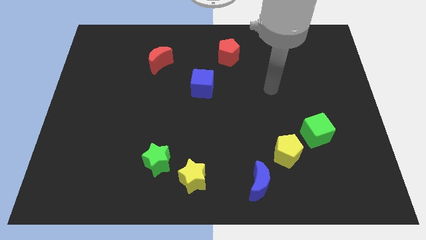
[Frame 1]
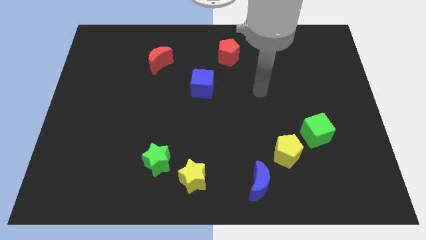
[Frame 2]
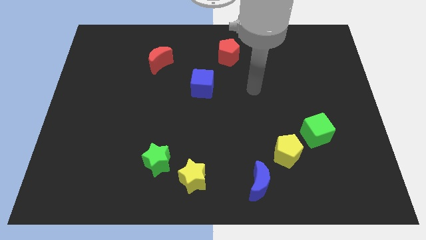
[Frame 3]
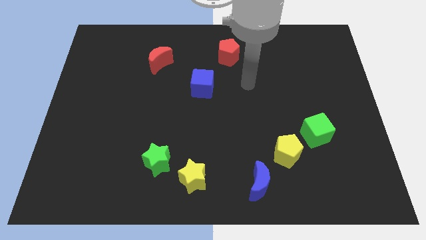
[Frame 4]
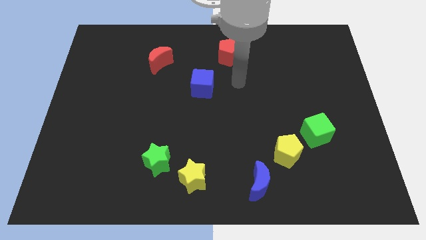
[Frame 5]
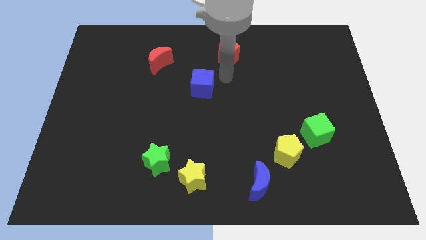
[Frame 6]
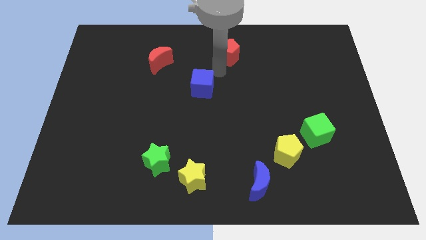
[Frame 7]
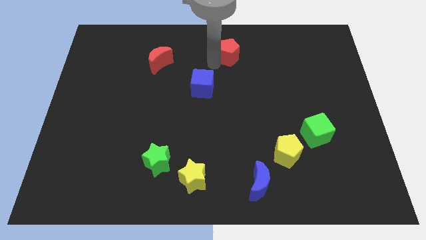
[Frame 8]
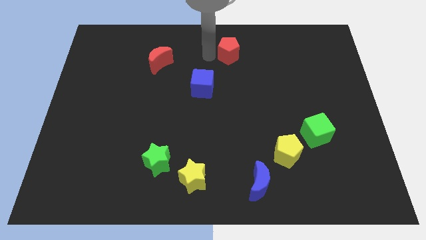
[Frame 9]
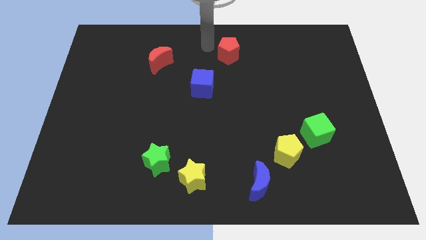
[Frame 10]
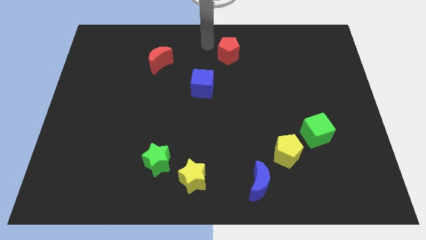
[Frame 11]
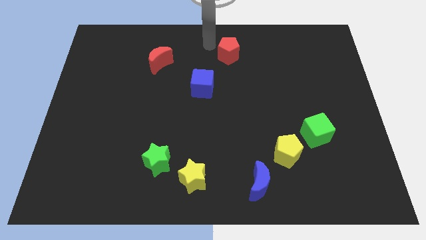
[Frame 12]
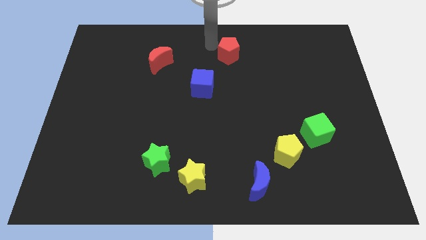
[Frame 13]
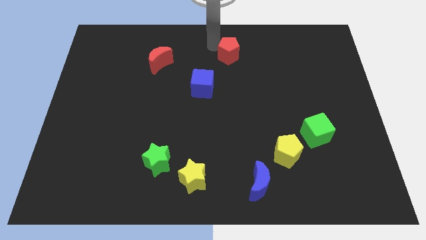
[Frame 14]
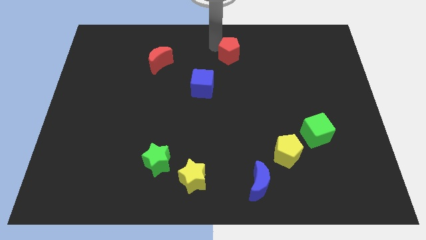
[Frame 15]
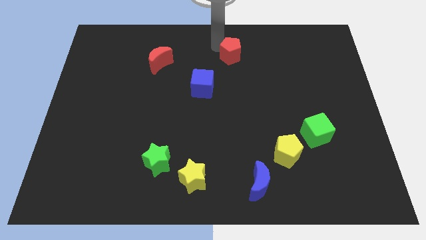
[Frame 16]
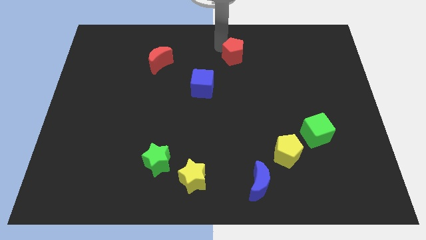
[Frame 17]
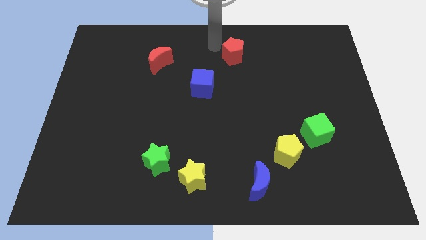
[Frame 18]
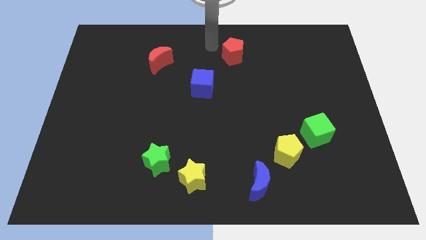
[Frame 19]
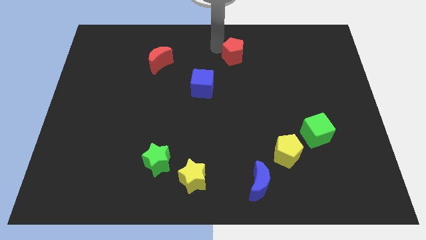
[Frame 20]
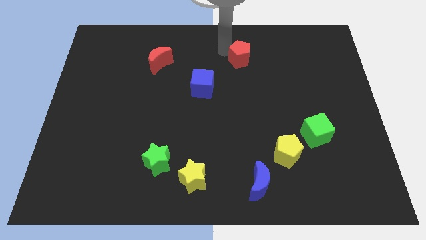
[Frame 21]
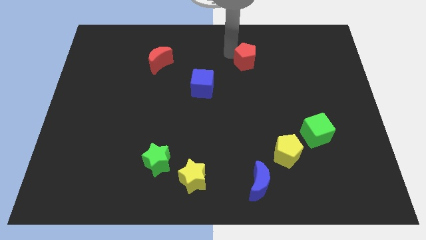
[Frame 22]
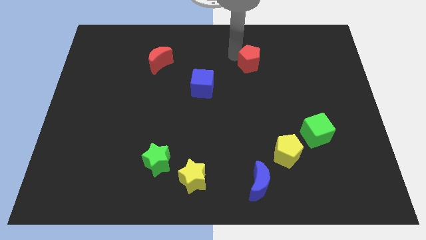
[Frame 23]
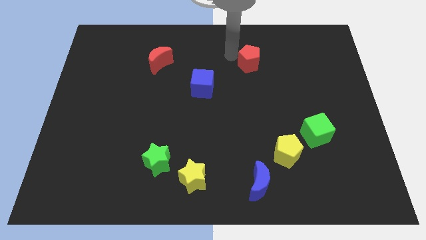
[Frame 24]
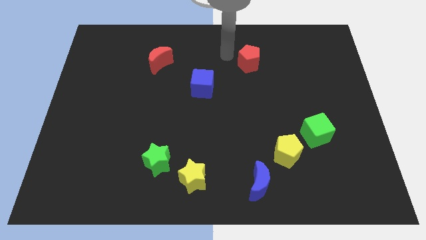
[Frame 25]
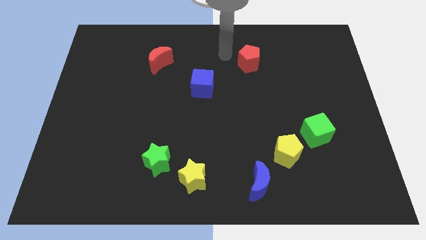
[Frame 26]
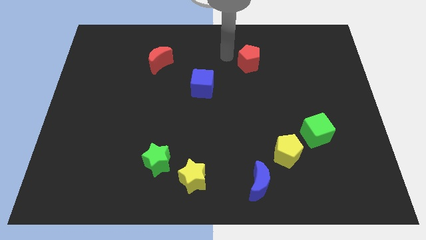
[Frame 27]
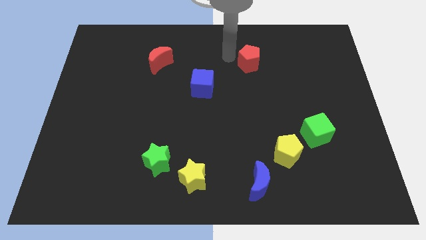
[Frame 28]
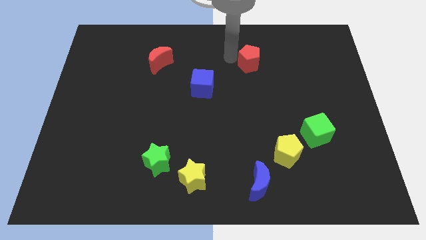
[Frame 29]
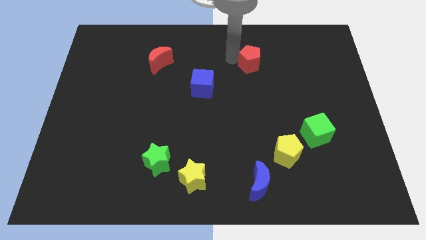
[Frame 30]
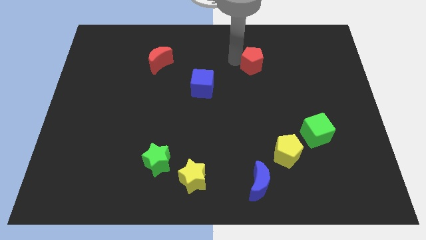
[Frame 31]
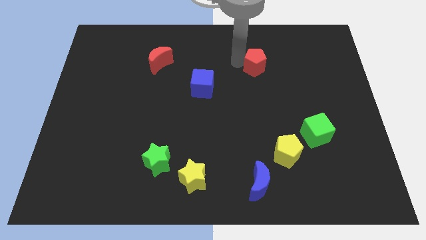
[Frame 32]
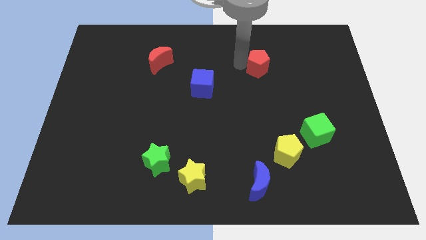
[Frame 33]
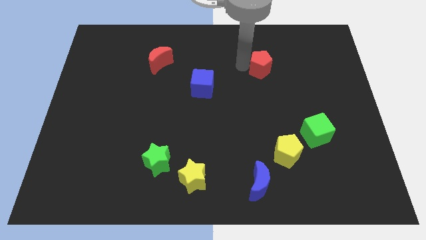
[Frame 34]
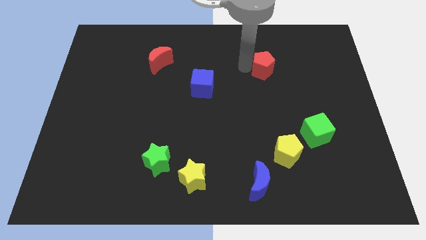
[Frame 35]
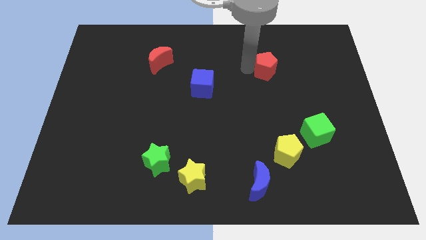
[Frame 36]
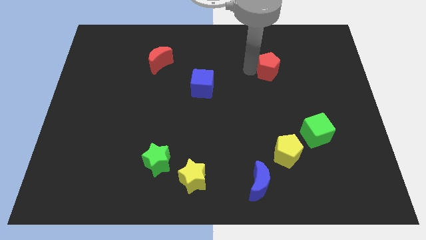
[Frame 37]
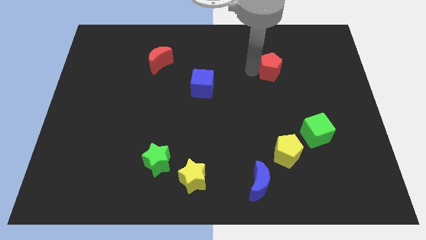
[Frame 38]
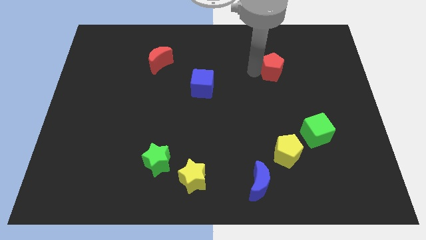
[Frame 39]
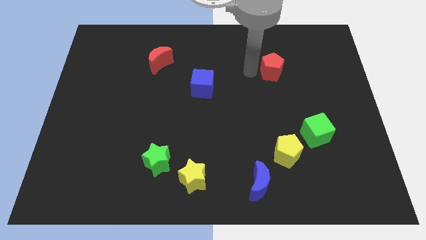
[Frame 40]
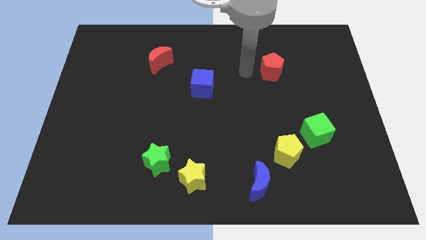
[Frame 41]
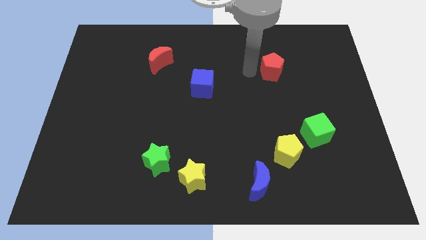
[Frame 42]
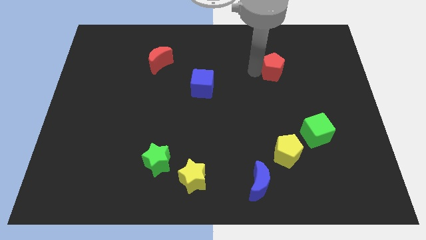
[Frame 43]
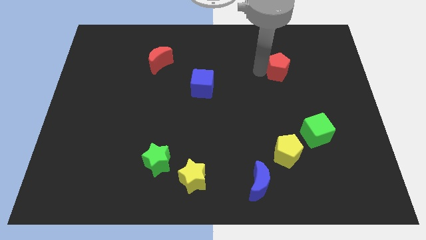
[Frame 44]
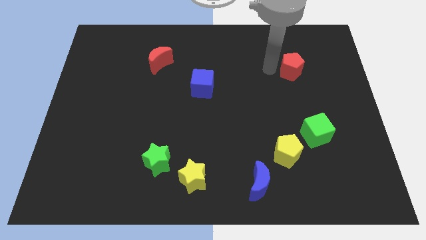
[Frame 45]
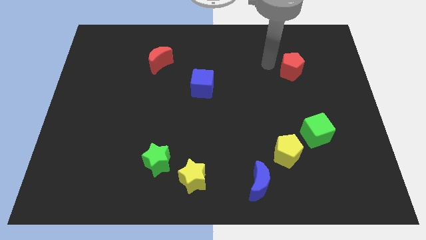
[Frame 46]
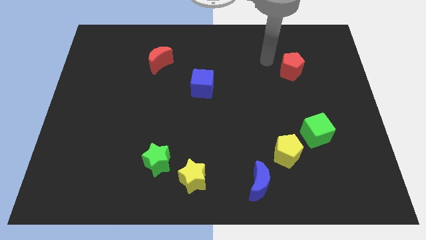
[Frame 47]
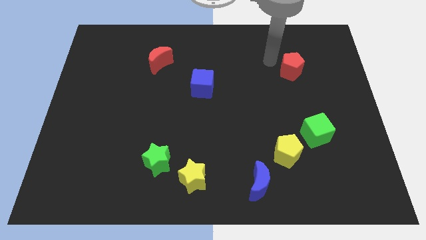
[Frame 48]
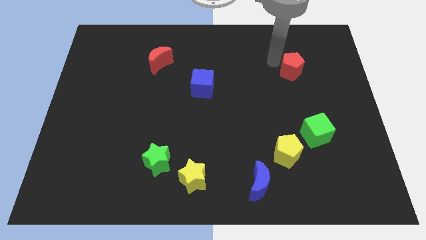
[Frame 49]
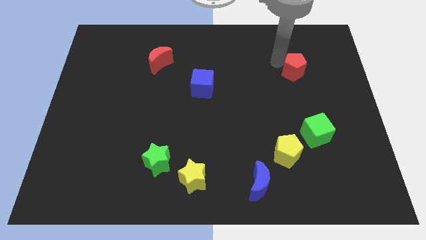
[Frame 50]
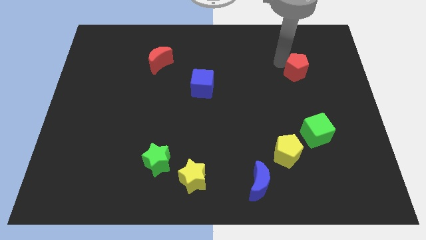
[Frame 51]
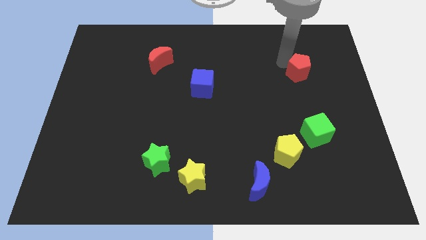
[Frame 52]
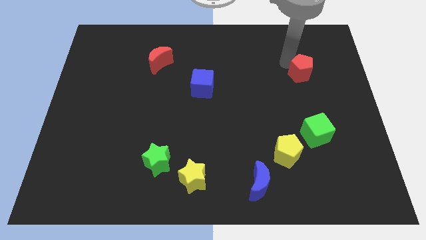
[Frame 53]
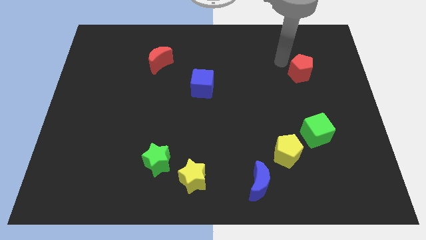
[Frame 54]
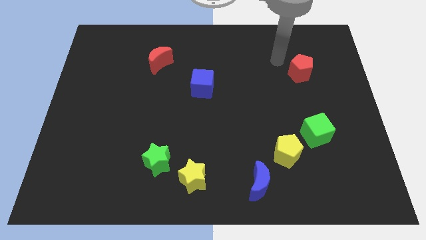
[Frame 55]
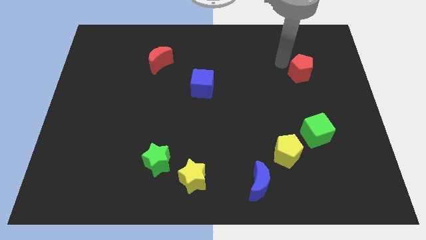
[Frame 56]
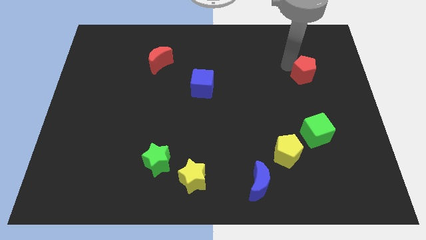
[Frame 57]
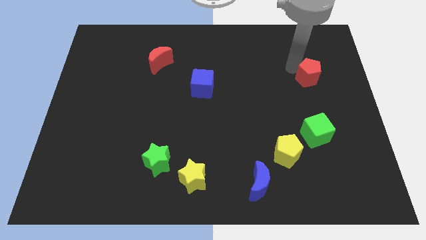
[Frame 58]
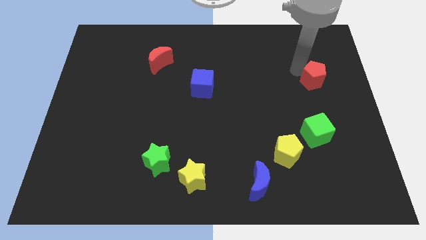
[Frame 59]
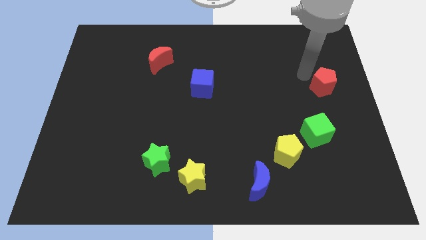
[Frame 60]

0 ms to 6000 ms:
put the red pentagon to the center right
